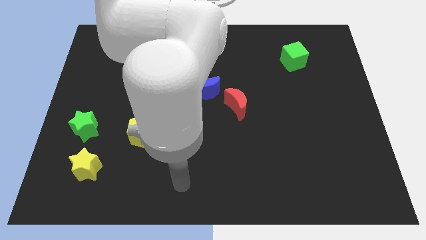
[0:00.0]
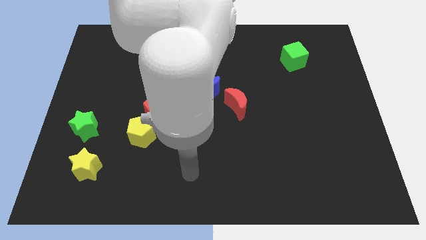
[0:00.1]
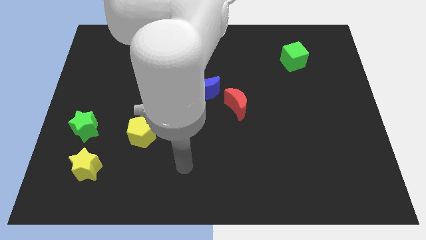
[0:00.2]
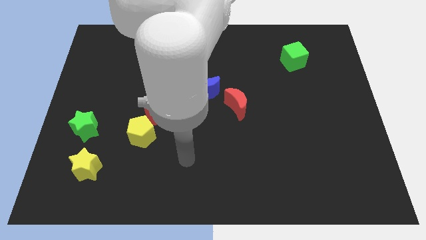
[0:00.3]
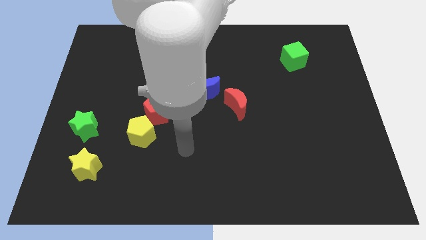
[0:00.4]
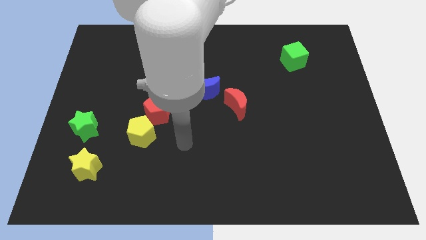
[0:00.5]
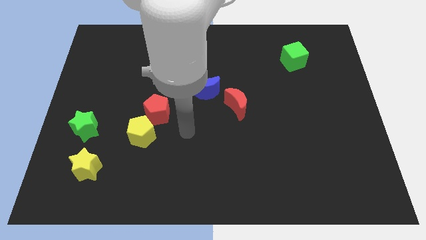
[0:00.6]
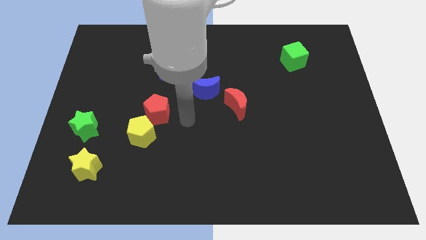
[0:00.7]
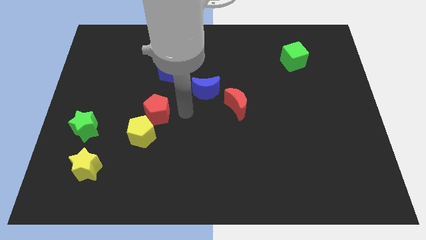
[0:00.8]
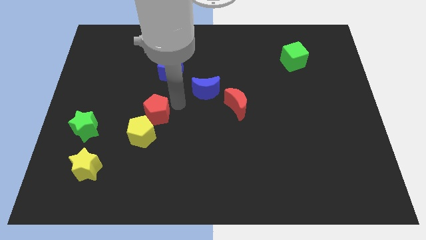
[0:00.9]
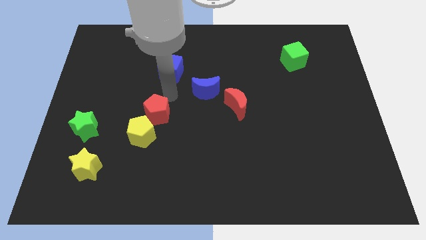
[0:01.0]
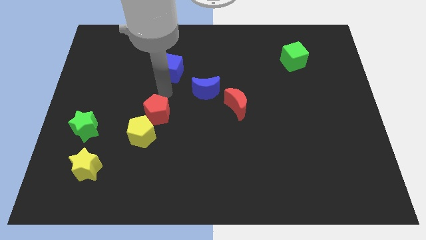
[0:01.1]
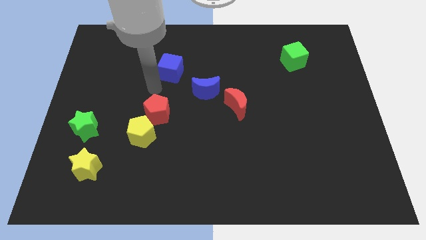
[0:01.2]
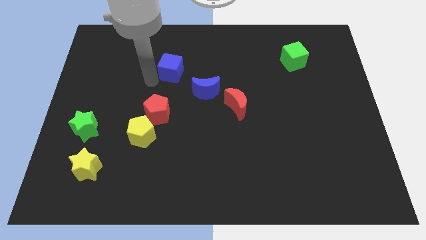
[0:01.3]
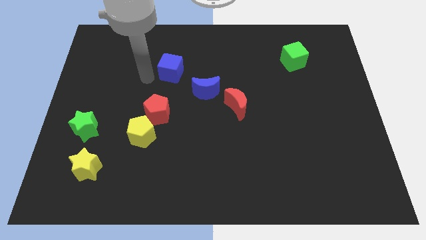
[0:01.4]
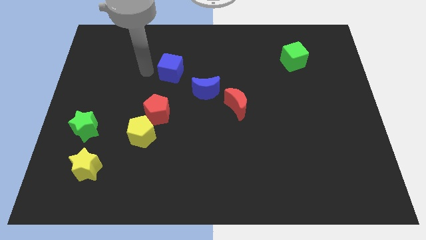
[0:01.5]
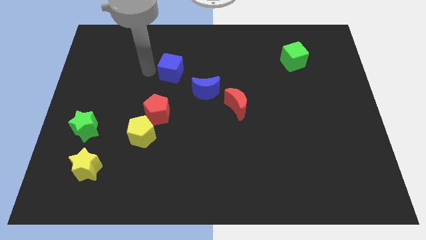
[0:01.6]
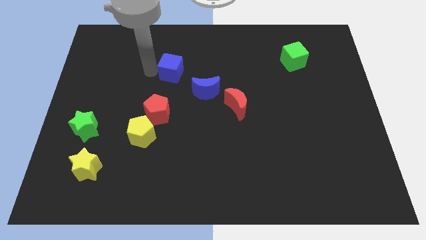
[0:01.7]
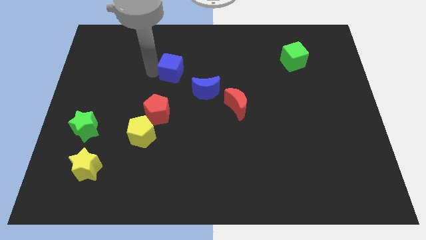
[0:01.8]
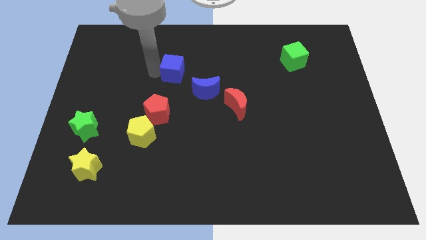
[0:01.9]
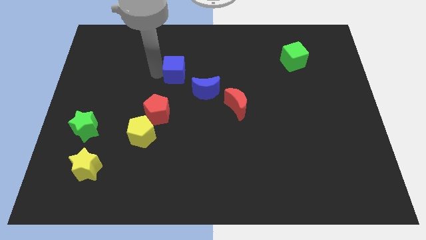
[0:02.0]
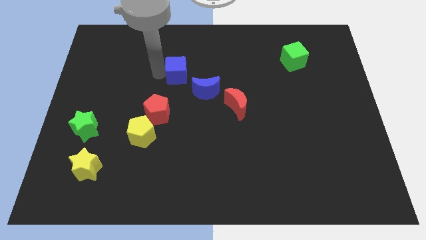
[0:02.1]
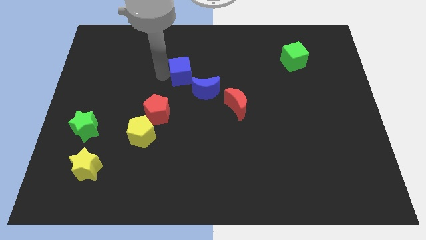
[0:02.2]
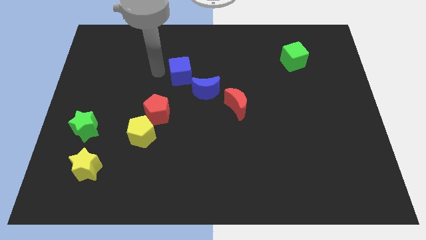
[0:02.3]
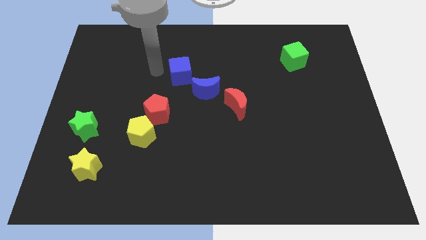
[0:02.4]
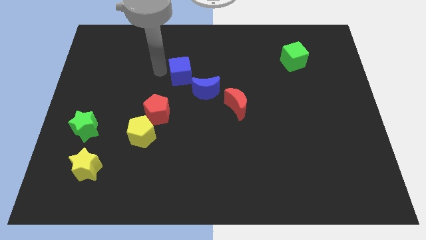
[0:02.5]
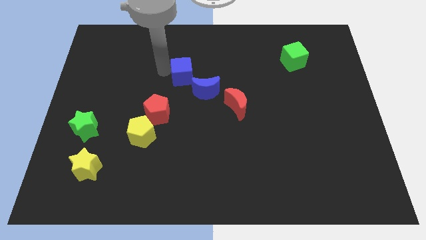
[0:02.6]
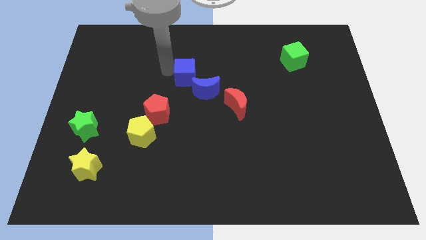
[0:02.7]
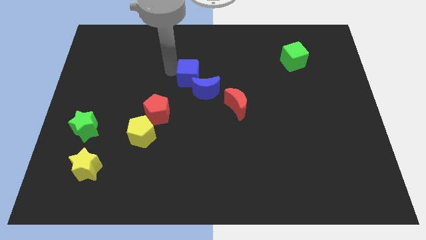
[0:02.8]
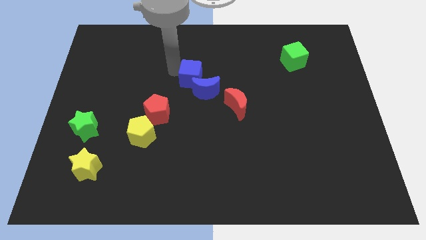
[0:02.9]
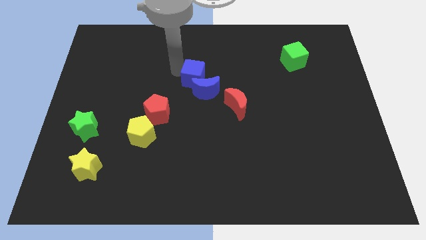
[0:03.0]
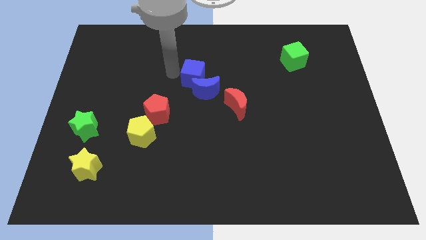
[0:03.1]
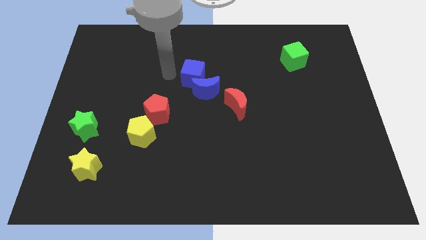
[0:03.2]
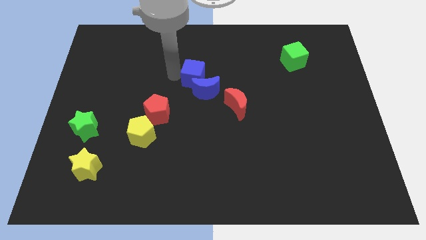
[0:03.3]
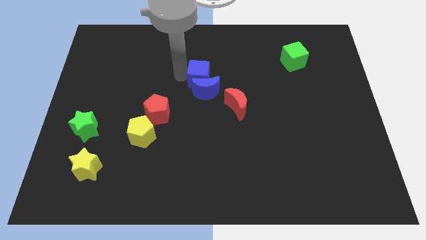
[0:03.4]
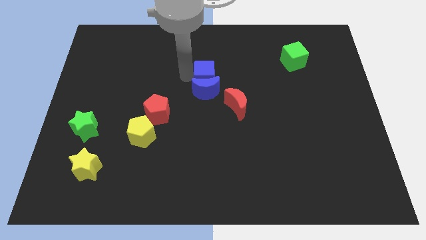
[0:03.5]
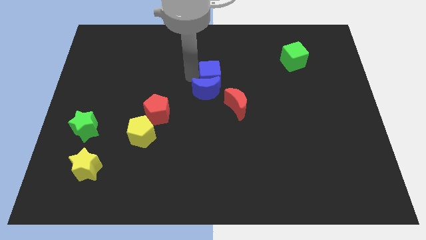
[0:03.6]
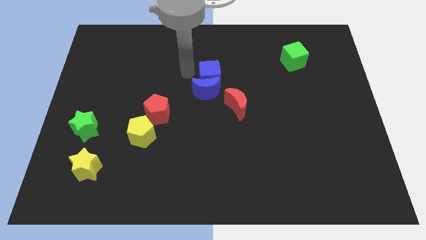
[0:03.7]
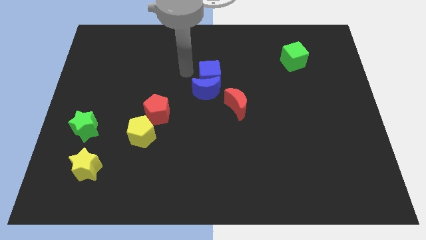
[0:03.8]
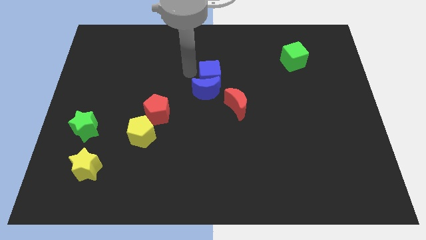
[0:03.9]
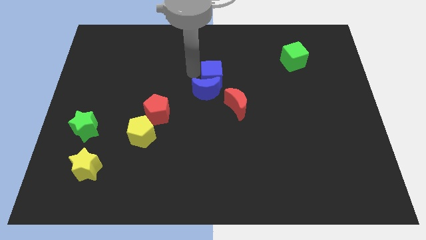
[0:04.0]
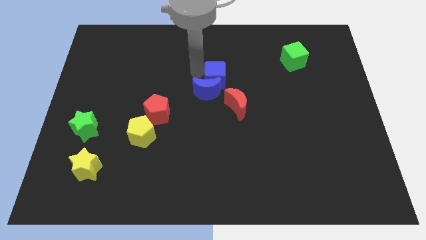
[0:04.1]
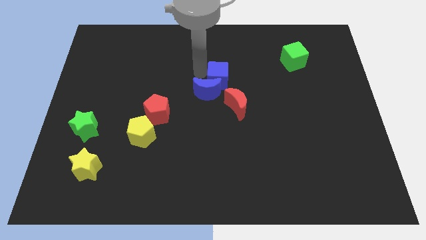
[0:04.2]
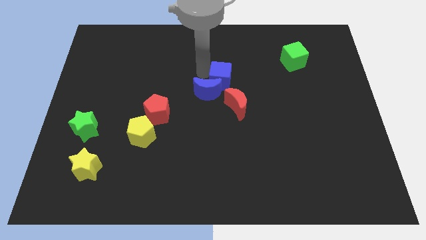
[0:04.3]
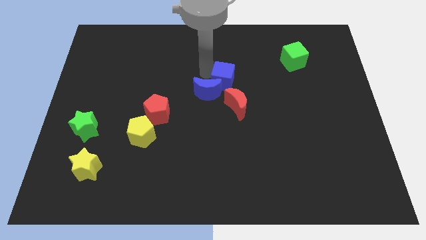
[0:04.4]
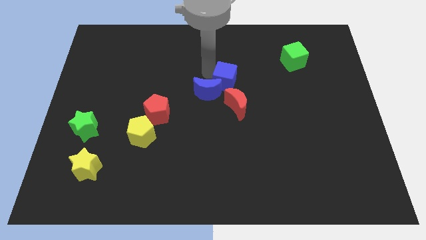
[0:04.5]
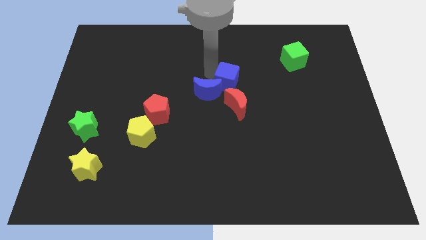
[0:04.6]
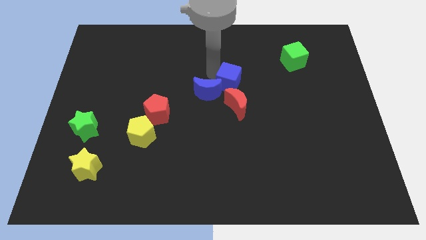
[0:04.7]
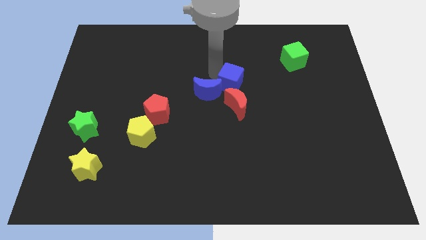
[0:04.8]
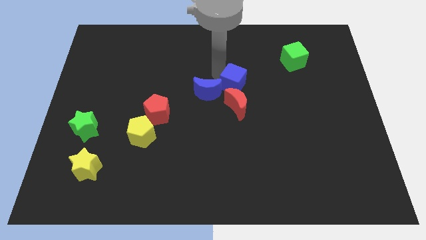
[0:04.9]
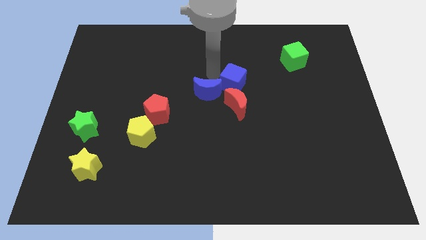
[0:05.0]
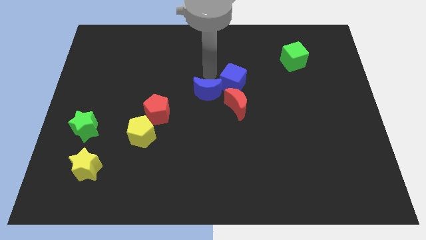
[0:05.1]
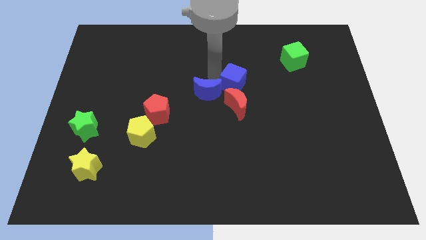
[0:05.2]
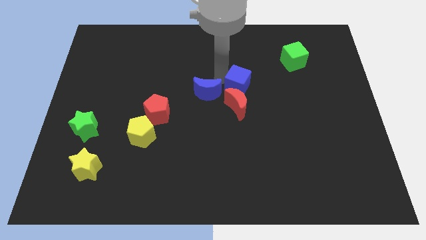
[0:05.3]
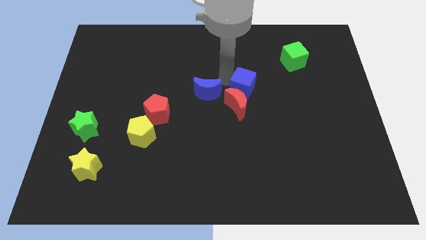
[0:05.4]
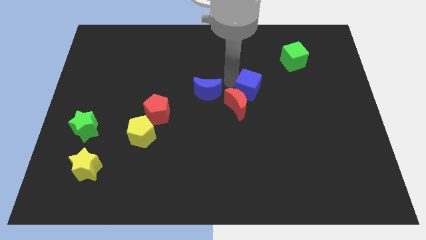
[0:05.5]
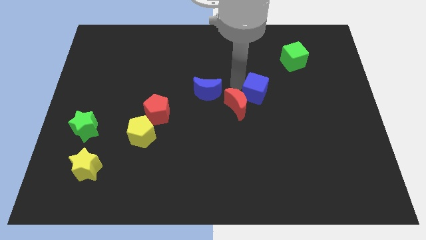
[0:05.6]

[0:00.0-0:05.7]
put the blue cube just right of the red moon

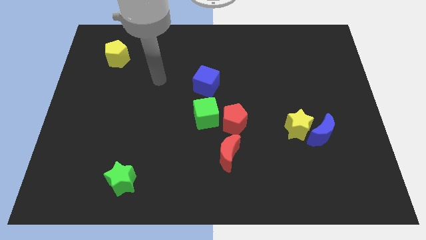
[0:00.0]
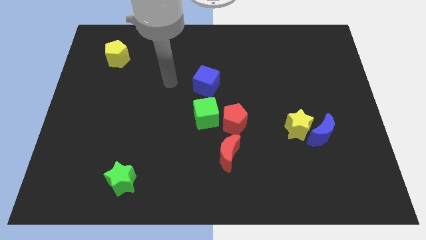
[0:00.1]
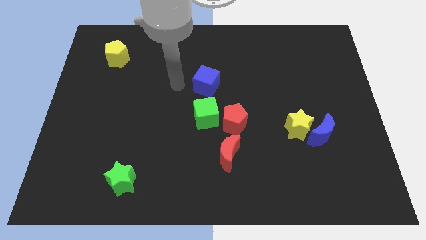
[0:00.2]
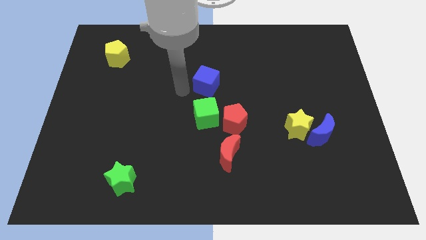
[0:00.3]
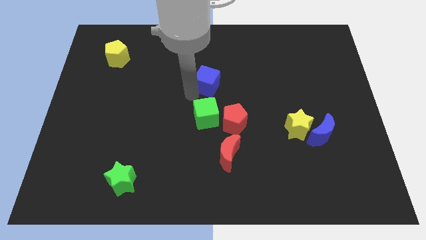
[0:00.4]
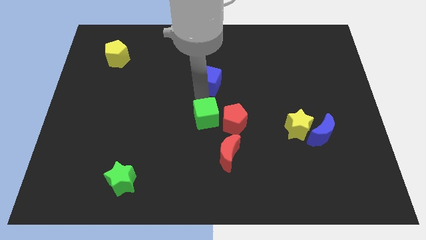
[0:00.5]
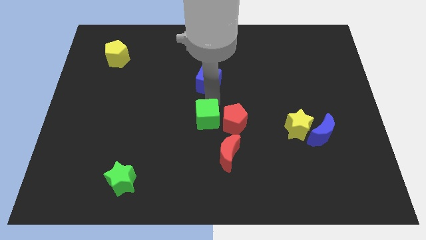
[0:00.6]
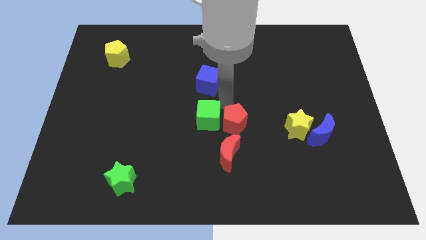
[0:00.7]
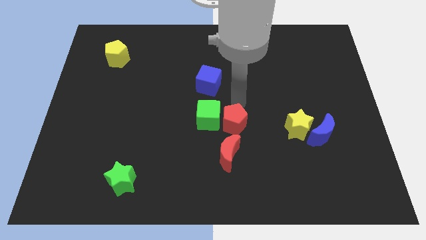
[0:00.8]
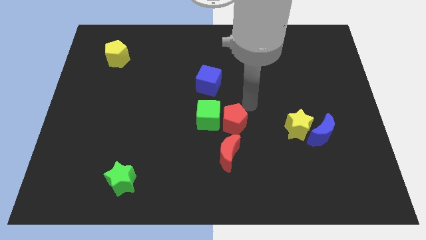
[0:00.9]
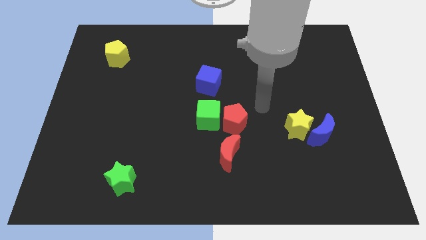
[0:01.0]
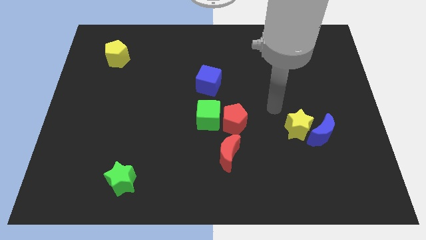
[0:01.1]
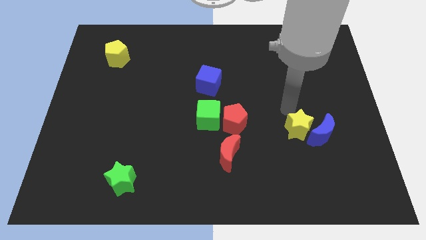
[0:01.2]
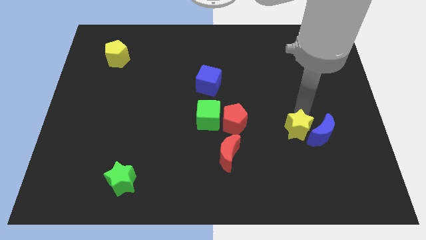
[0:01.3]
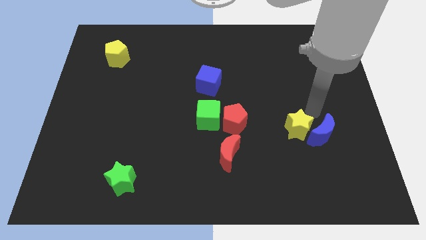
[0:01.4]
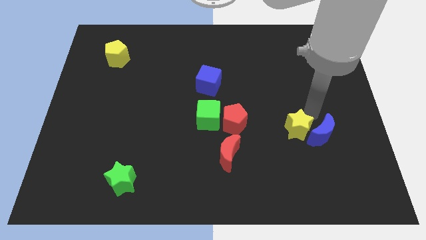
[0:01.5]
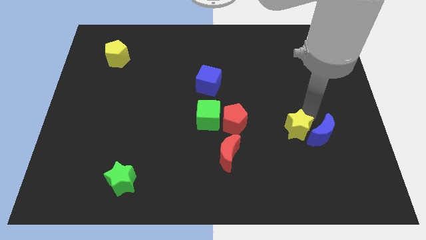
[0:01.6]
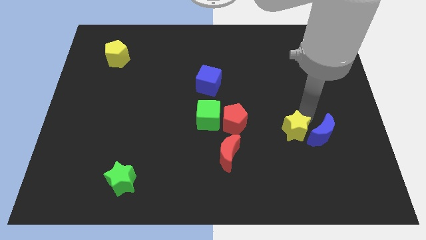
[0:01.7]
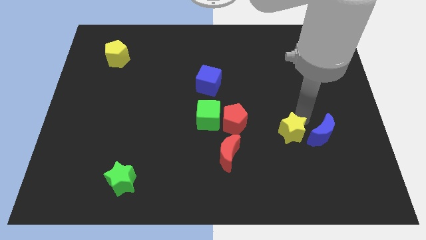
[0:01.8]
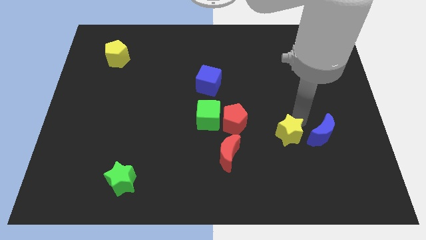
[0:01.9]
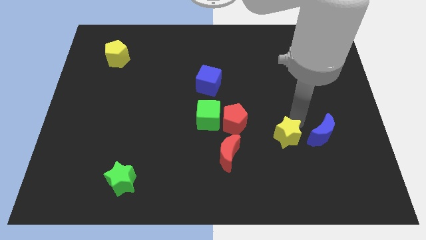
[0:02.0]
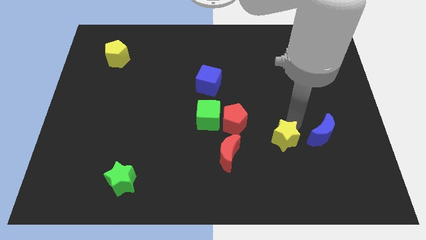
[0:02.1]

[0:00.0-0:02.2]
slide the yellow star to the right side of the red moon

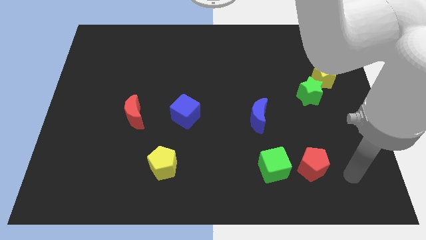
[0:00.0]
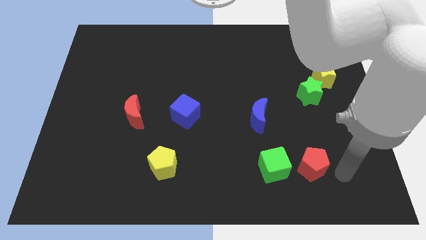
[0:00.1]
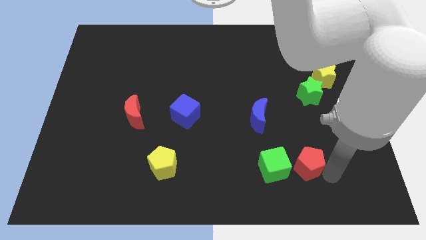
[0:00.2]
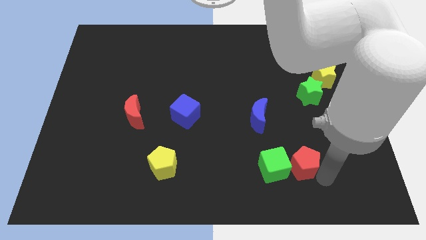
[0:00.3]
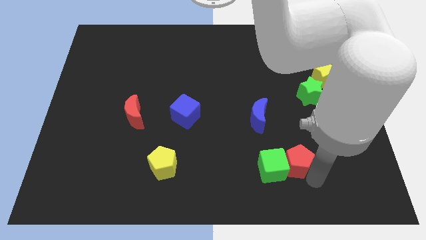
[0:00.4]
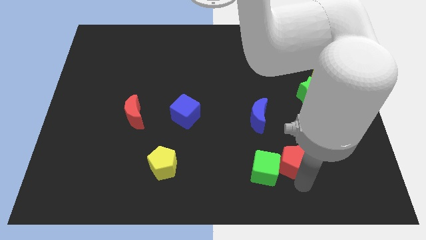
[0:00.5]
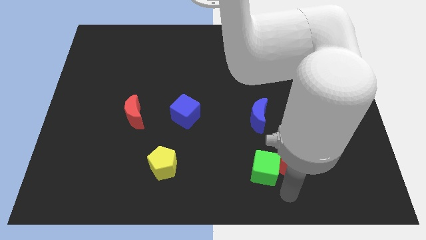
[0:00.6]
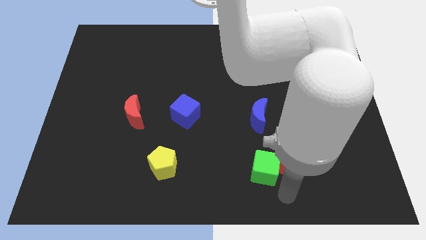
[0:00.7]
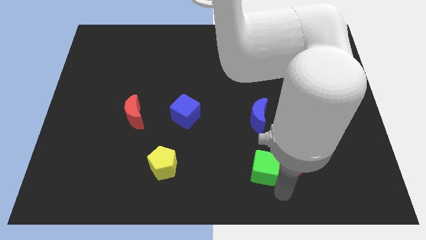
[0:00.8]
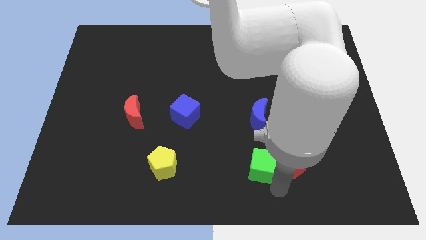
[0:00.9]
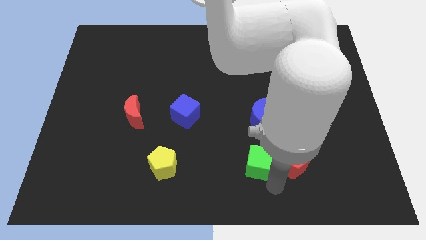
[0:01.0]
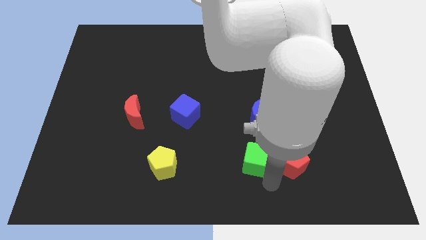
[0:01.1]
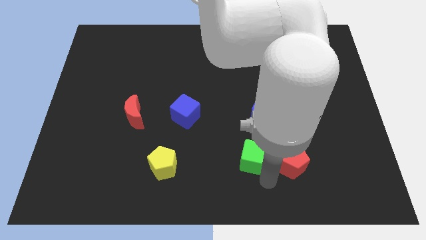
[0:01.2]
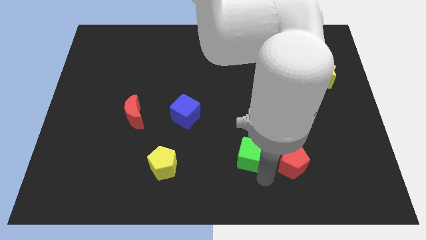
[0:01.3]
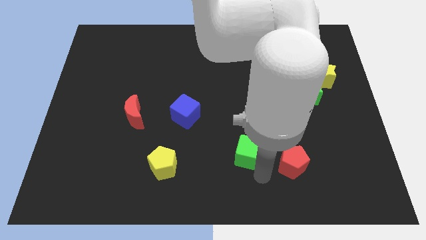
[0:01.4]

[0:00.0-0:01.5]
move the green cube to the bottom left of the blue moon
